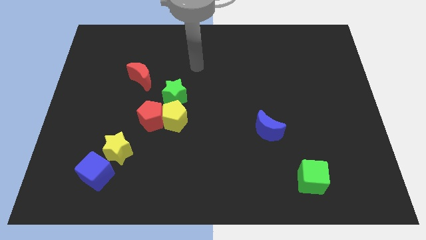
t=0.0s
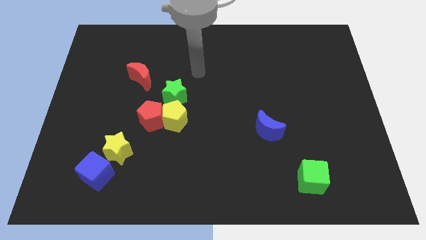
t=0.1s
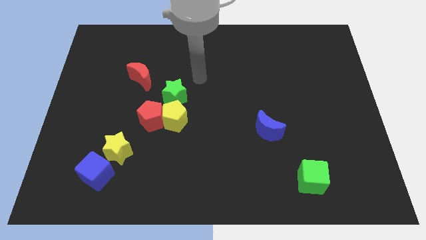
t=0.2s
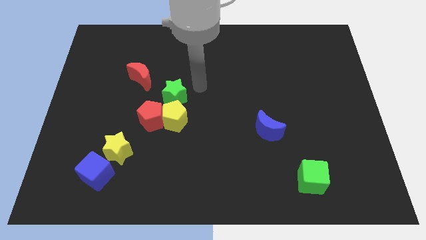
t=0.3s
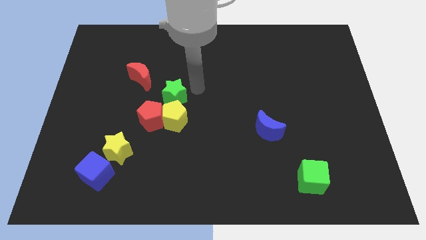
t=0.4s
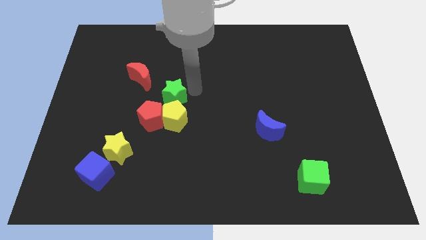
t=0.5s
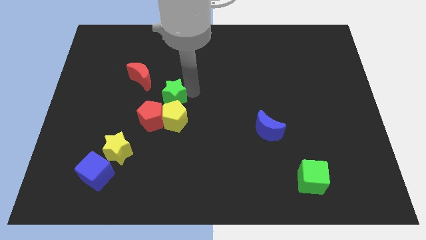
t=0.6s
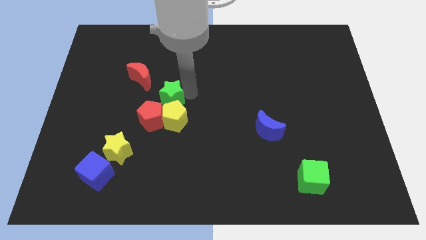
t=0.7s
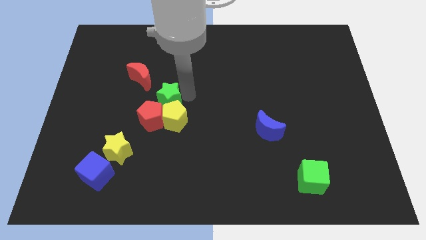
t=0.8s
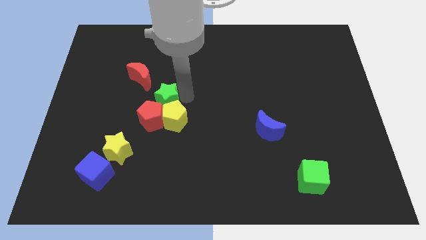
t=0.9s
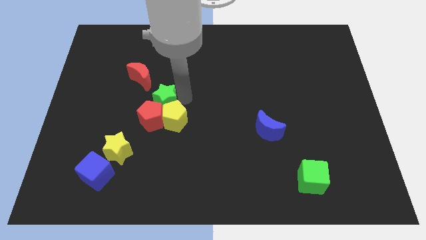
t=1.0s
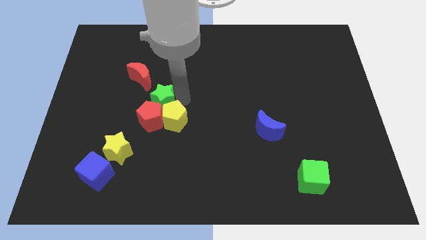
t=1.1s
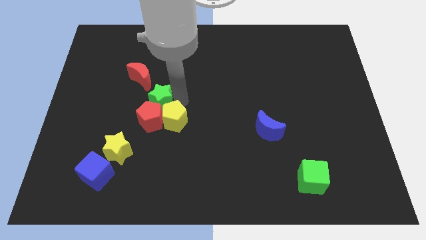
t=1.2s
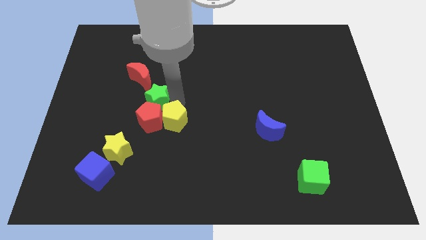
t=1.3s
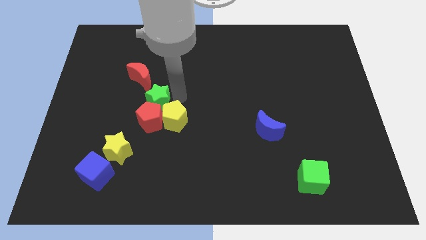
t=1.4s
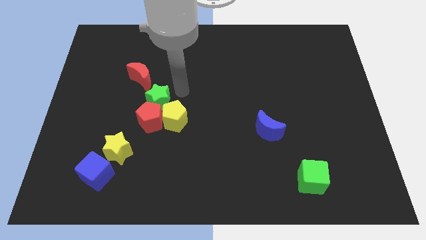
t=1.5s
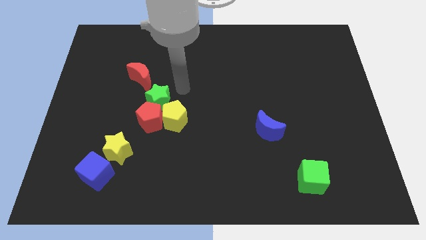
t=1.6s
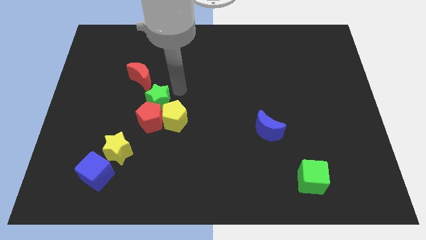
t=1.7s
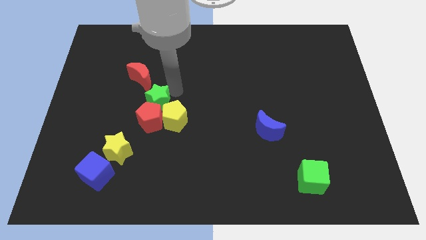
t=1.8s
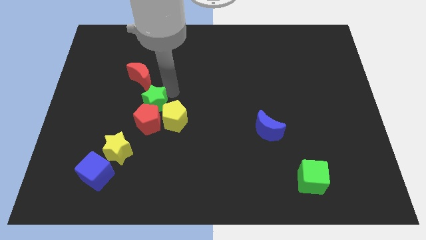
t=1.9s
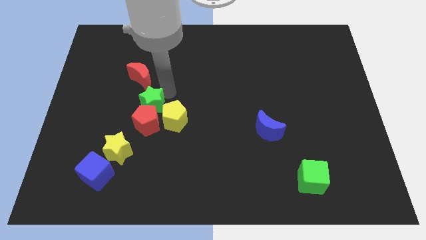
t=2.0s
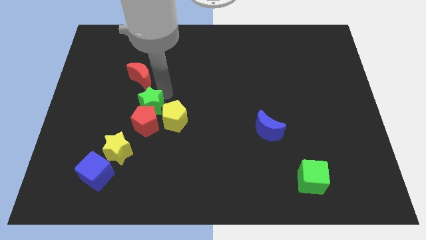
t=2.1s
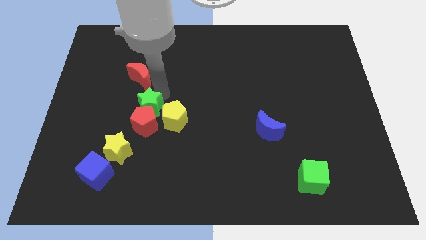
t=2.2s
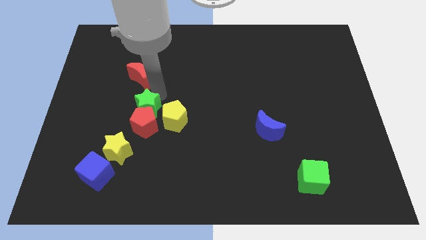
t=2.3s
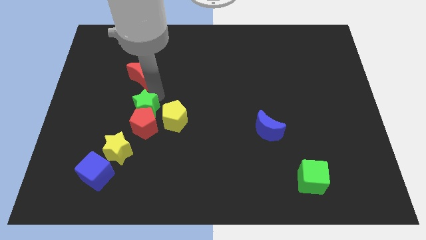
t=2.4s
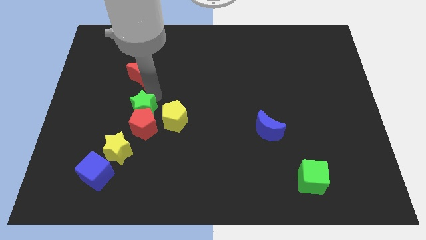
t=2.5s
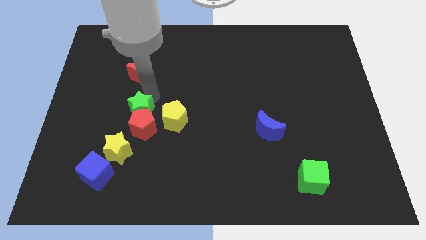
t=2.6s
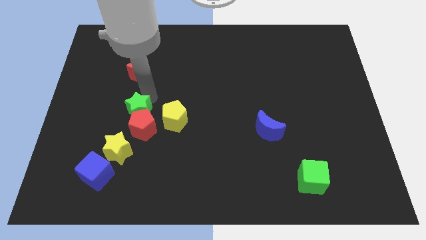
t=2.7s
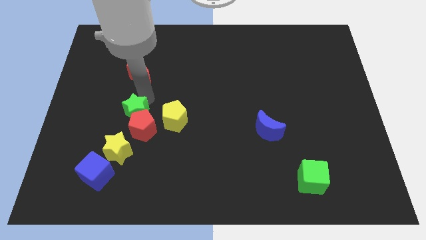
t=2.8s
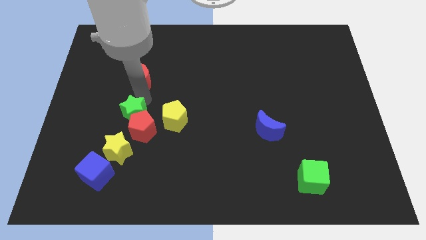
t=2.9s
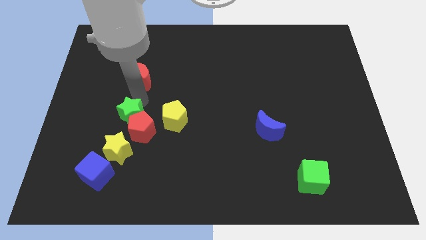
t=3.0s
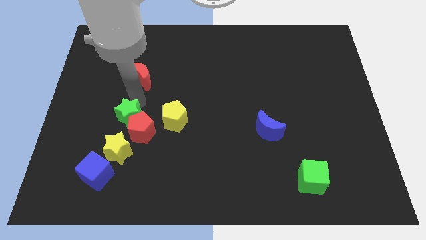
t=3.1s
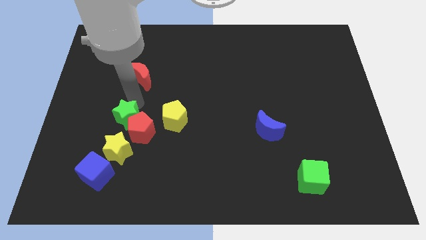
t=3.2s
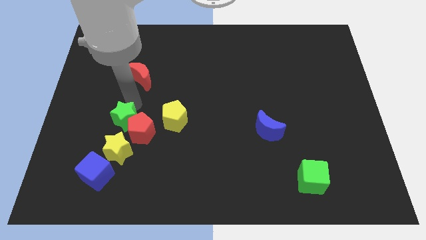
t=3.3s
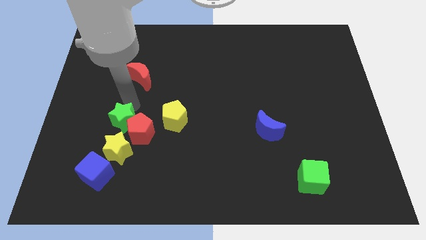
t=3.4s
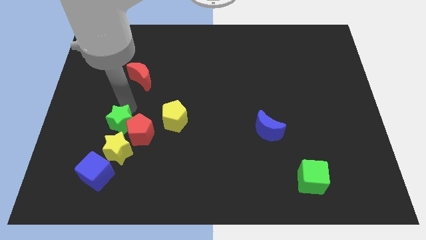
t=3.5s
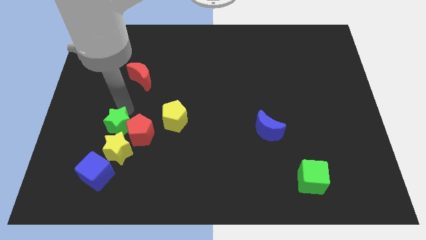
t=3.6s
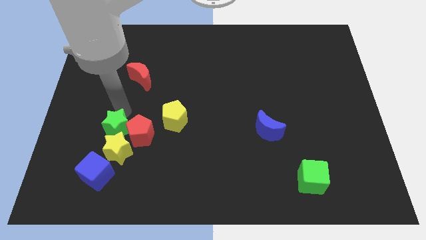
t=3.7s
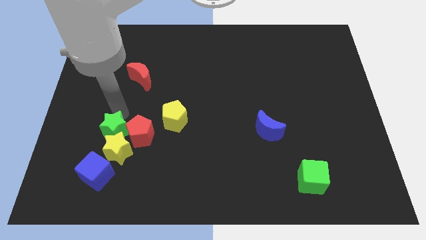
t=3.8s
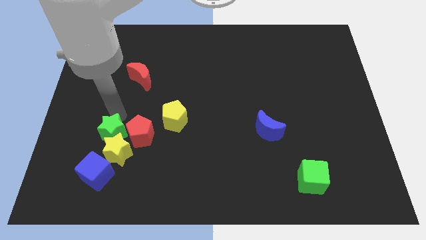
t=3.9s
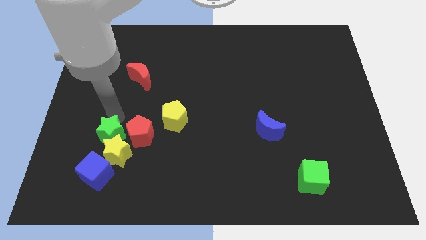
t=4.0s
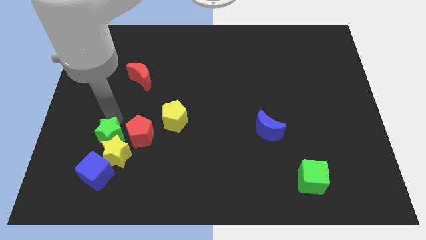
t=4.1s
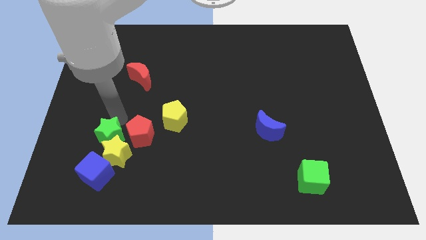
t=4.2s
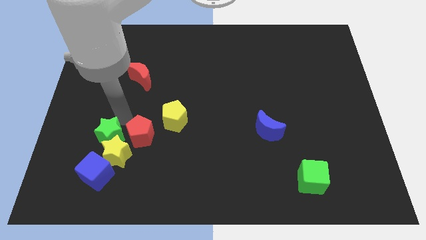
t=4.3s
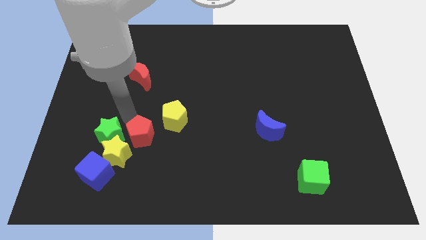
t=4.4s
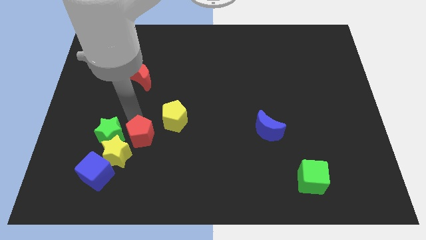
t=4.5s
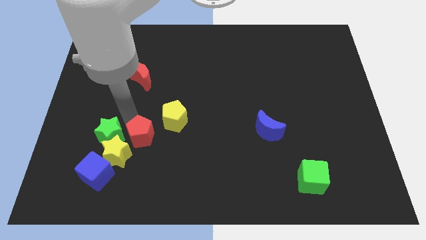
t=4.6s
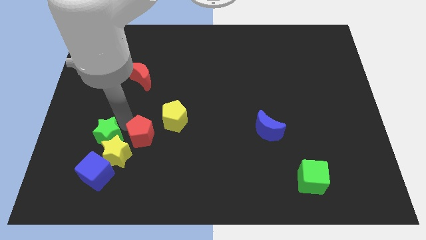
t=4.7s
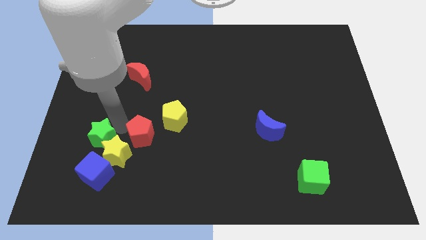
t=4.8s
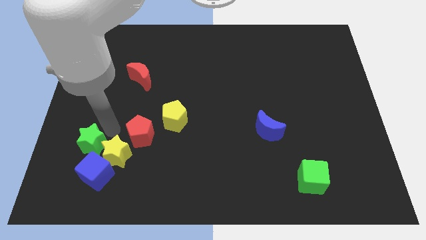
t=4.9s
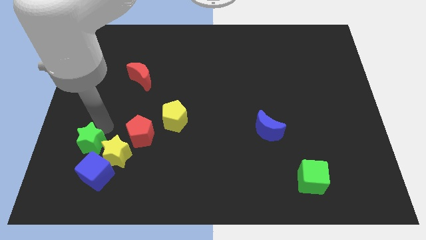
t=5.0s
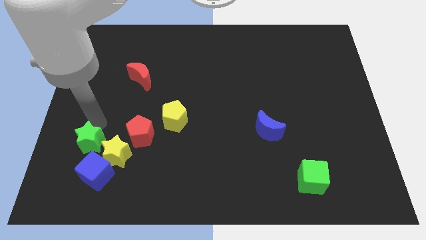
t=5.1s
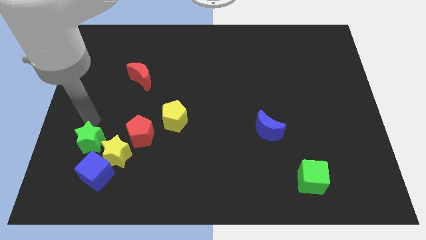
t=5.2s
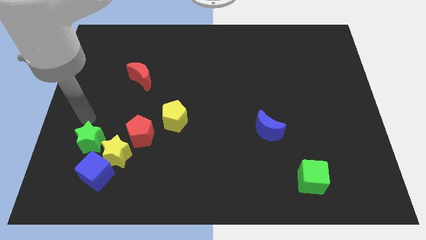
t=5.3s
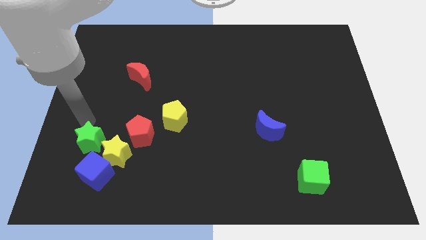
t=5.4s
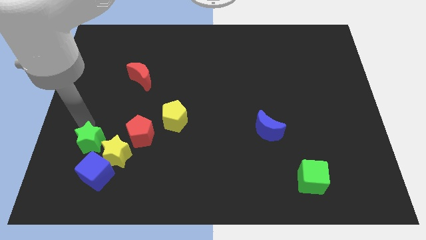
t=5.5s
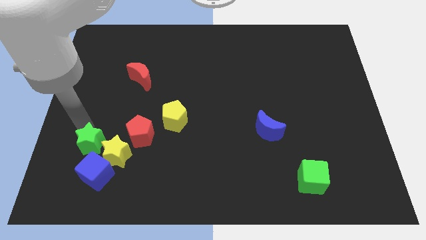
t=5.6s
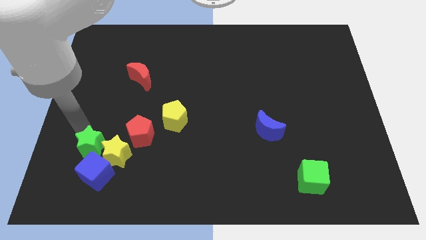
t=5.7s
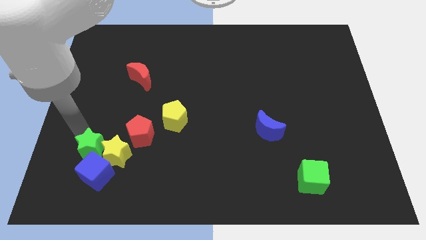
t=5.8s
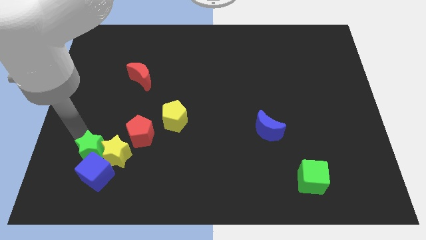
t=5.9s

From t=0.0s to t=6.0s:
move the green star to the blue cube
